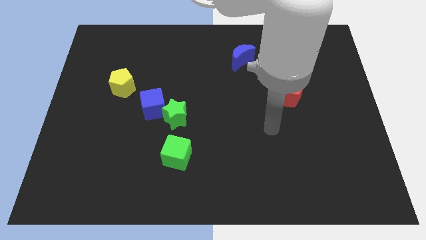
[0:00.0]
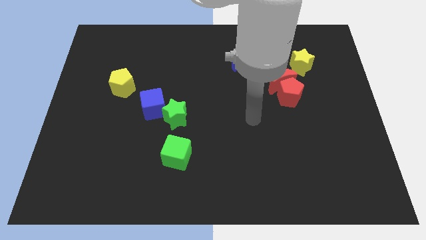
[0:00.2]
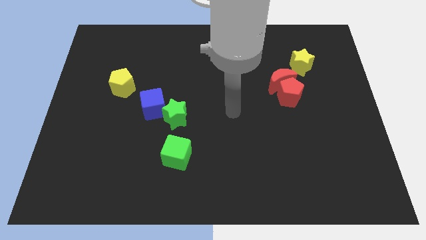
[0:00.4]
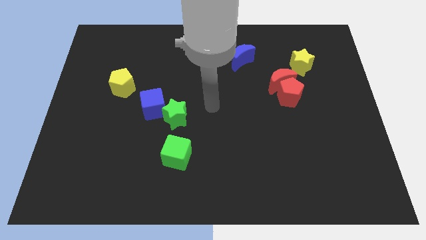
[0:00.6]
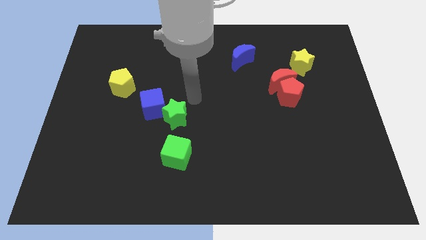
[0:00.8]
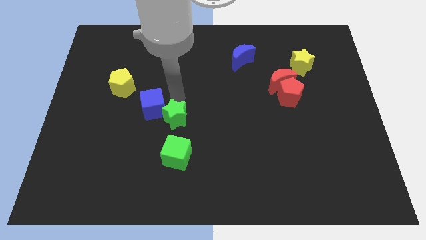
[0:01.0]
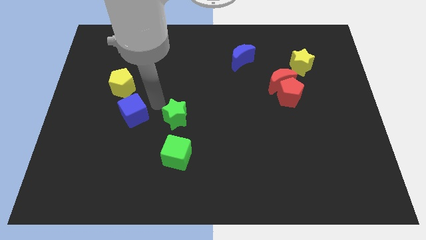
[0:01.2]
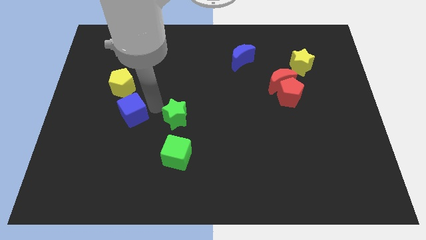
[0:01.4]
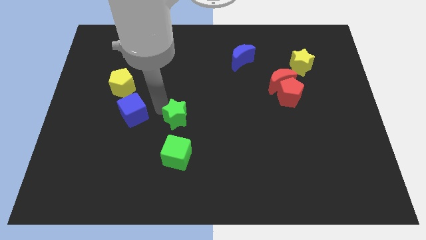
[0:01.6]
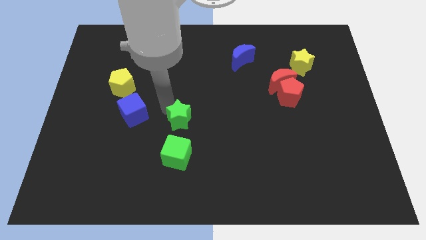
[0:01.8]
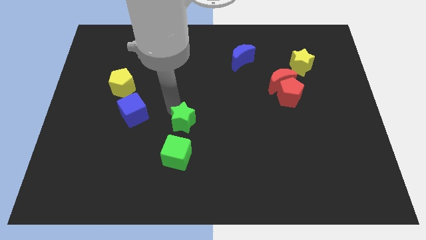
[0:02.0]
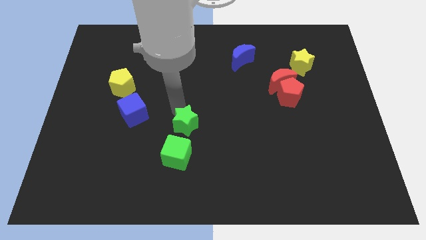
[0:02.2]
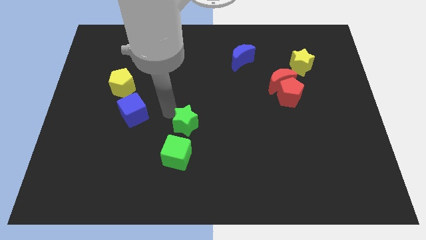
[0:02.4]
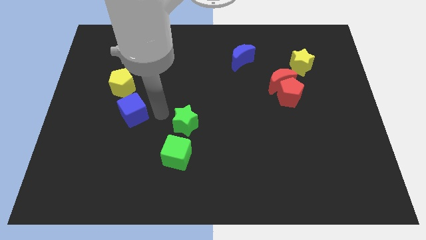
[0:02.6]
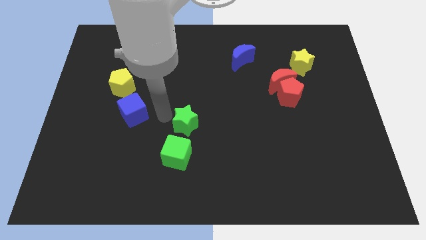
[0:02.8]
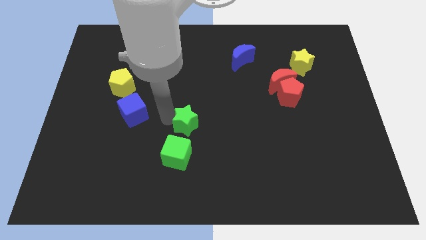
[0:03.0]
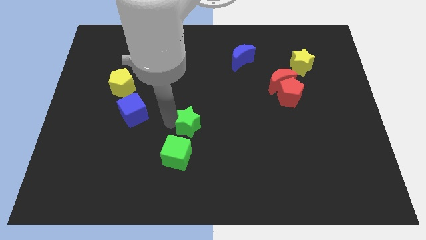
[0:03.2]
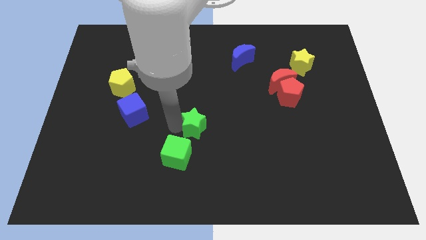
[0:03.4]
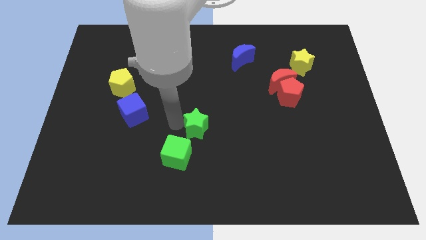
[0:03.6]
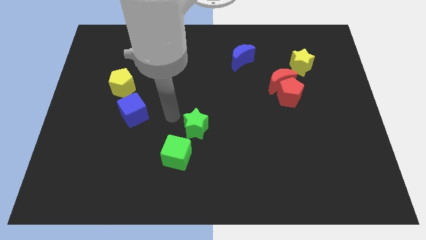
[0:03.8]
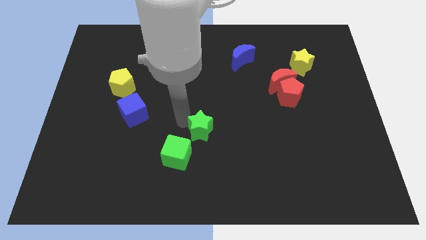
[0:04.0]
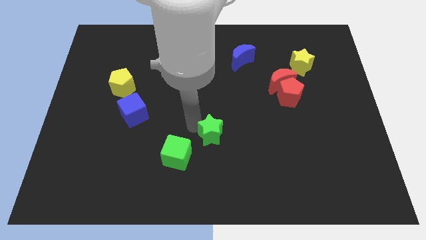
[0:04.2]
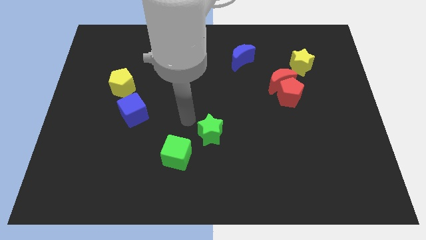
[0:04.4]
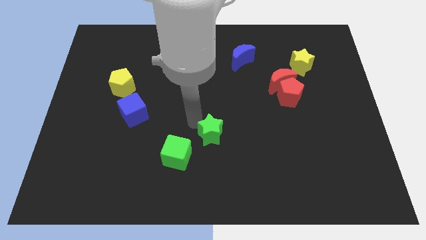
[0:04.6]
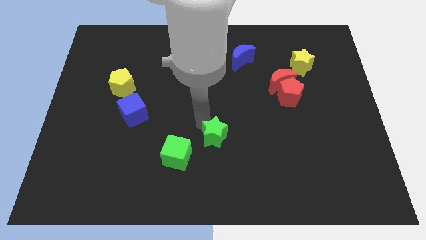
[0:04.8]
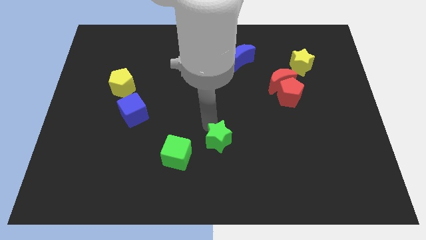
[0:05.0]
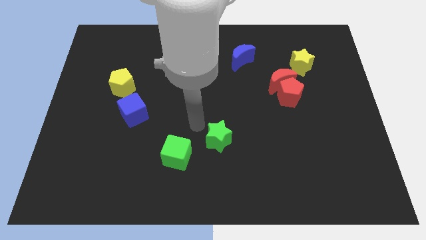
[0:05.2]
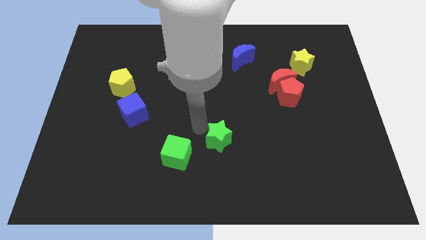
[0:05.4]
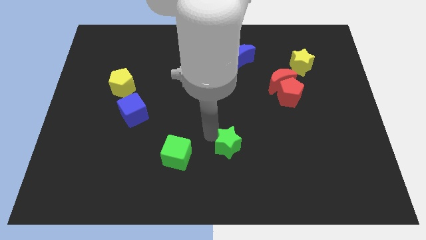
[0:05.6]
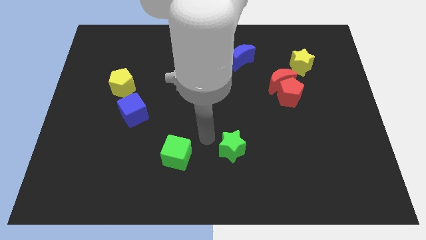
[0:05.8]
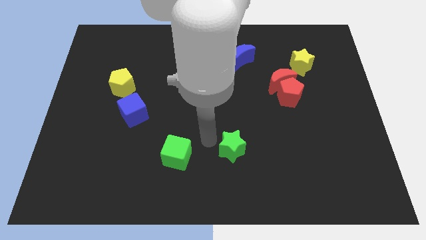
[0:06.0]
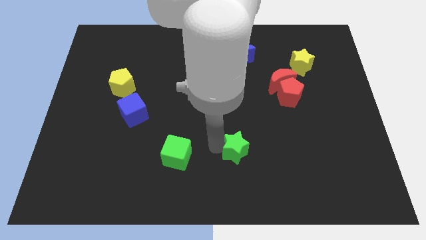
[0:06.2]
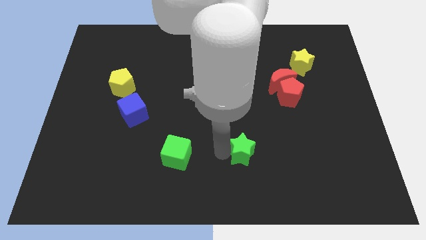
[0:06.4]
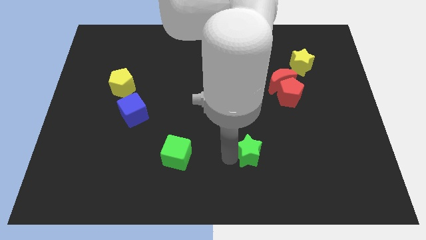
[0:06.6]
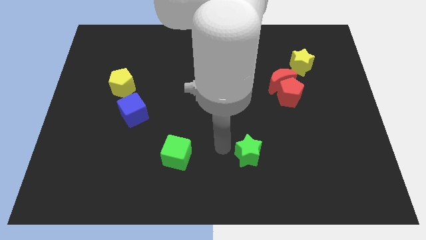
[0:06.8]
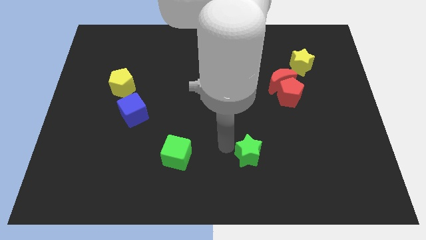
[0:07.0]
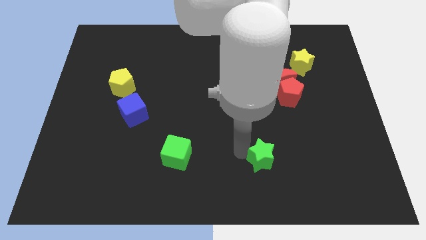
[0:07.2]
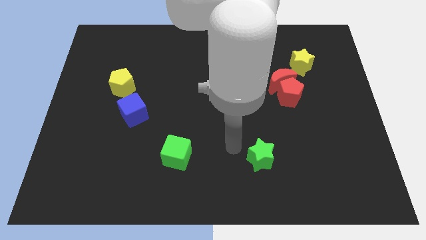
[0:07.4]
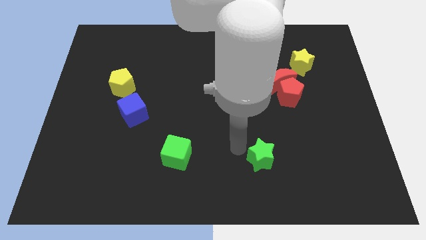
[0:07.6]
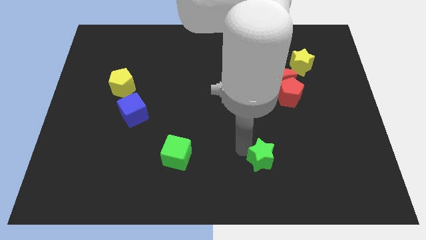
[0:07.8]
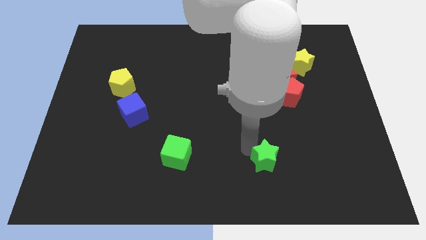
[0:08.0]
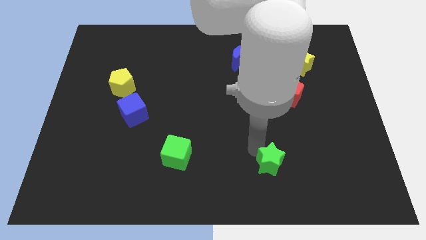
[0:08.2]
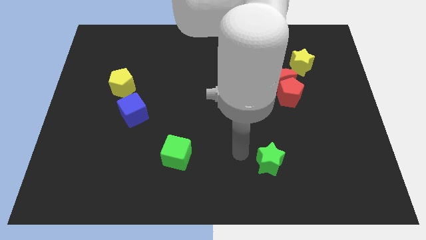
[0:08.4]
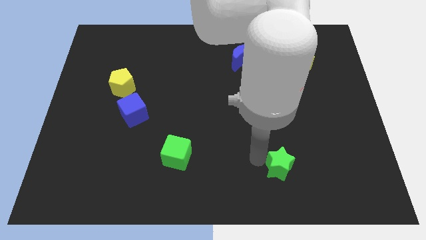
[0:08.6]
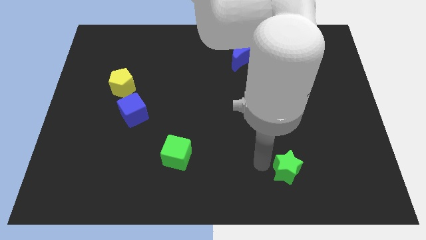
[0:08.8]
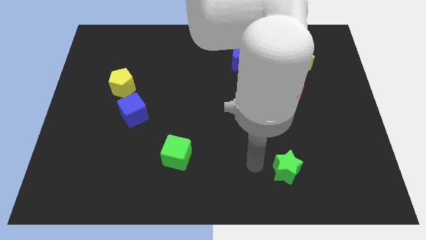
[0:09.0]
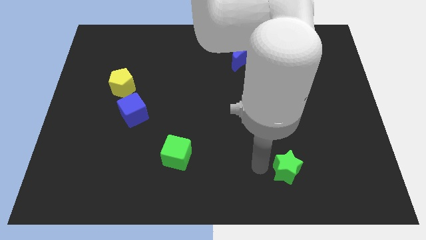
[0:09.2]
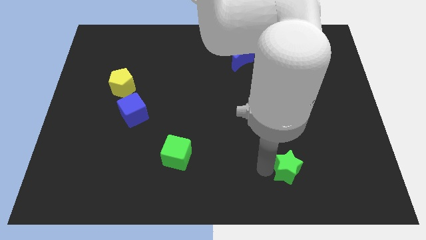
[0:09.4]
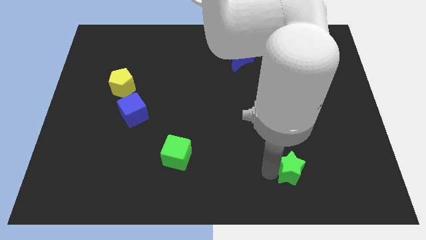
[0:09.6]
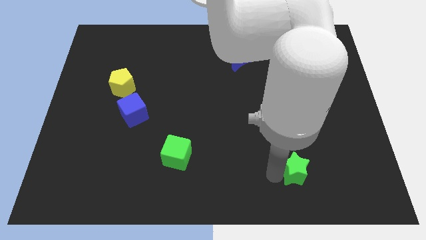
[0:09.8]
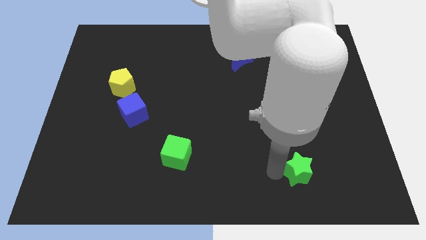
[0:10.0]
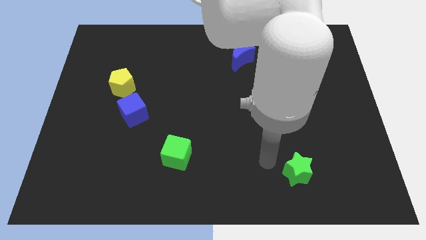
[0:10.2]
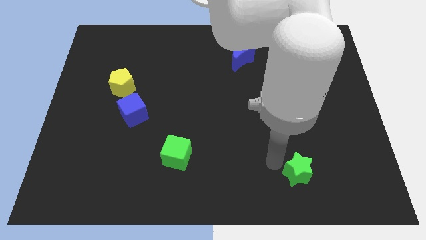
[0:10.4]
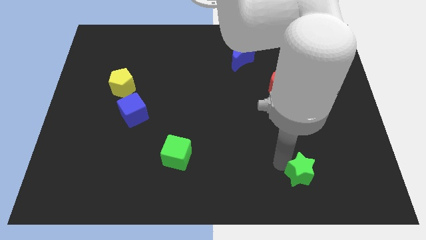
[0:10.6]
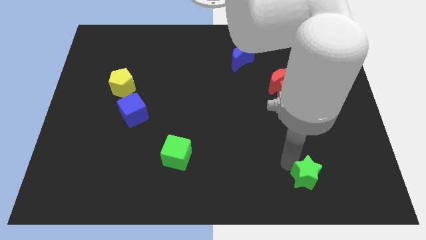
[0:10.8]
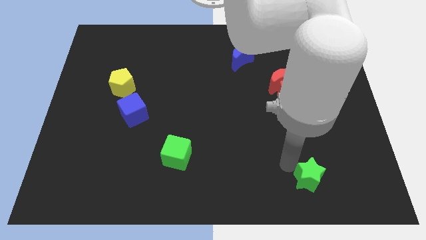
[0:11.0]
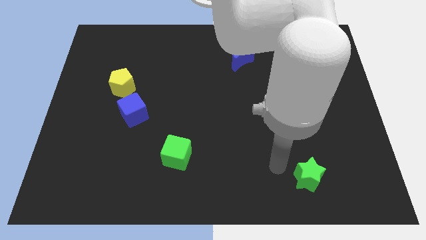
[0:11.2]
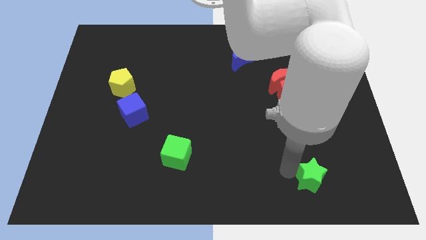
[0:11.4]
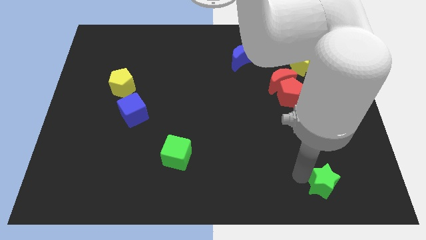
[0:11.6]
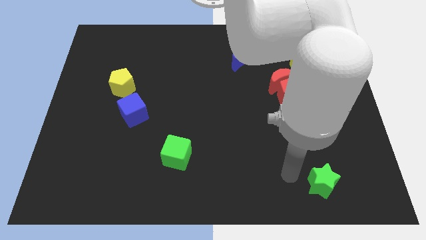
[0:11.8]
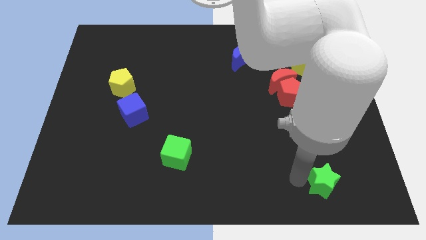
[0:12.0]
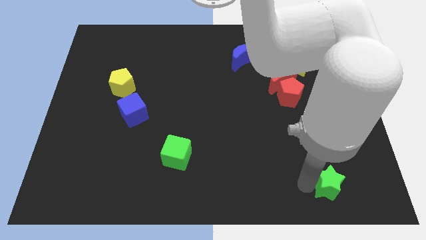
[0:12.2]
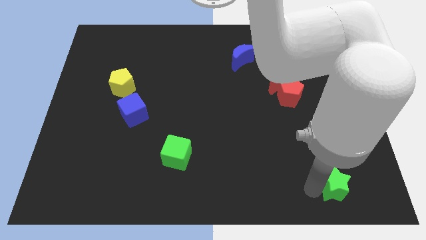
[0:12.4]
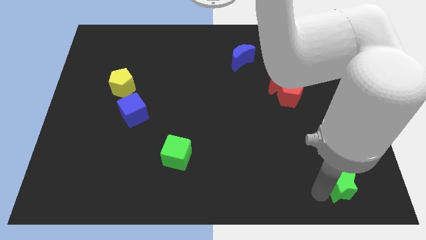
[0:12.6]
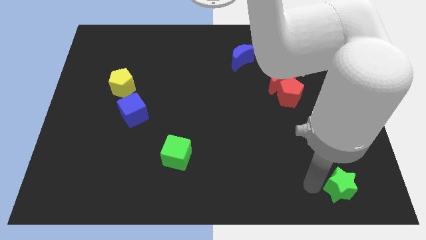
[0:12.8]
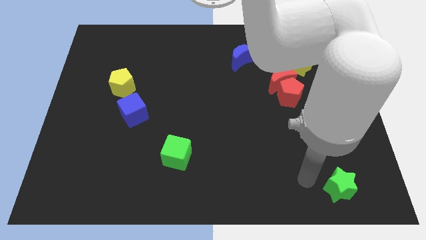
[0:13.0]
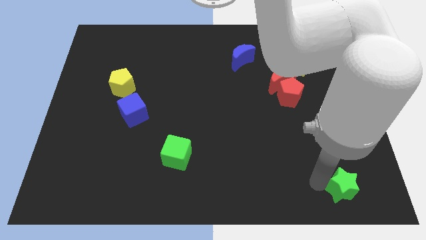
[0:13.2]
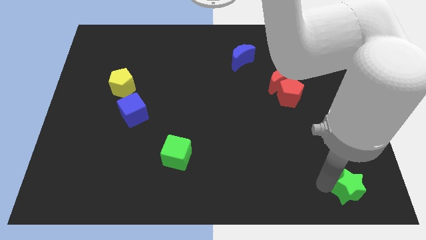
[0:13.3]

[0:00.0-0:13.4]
slide the green star to the bottom right corner
